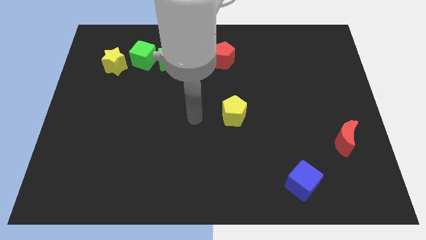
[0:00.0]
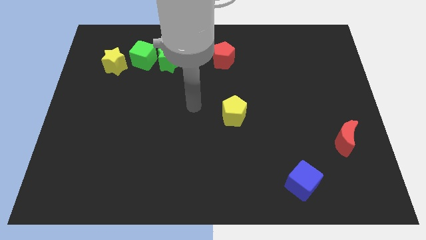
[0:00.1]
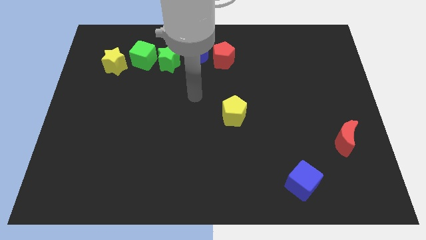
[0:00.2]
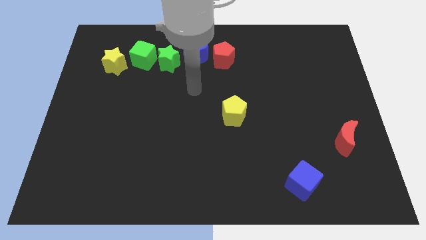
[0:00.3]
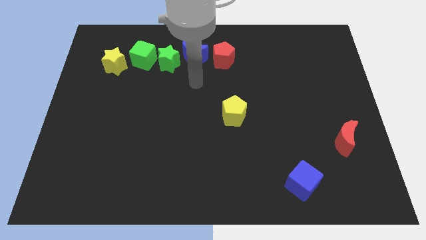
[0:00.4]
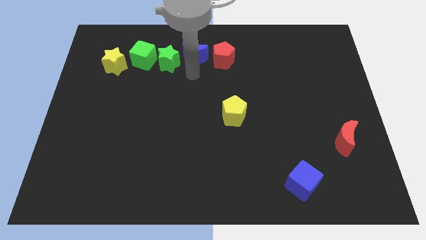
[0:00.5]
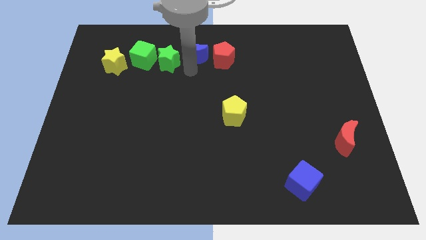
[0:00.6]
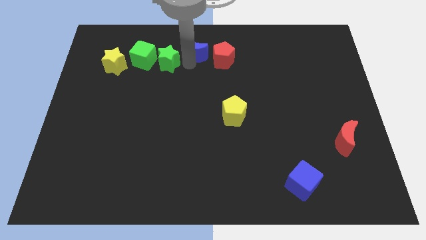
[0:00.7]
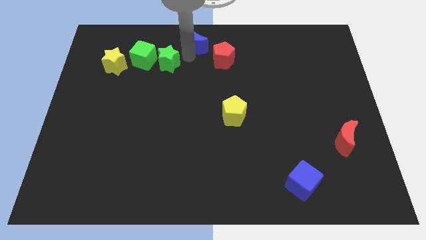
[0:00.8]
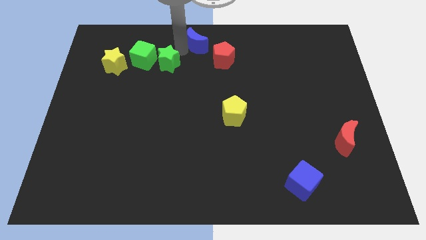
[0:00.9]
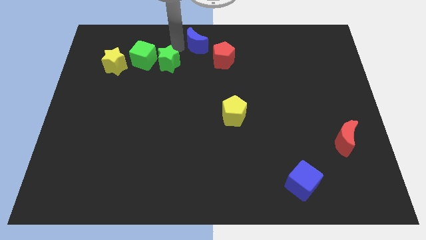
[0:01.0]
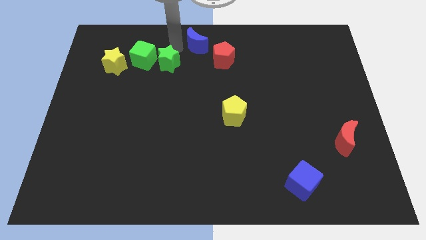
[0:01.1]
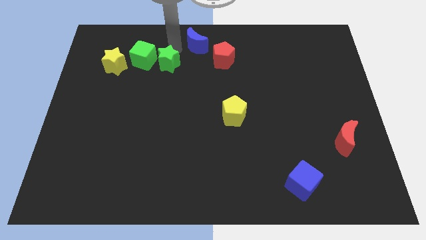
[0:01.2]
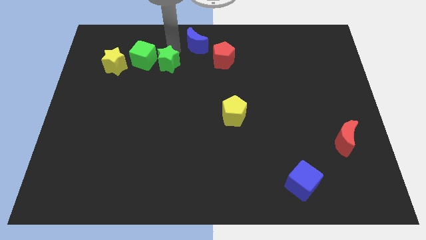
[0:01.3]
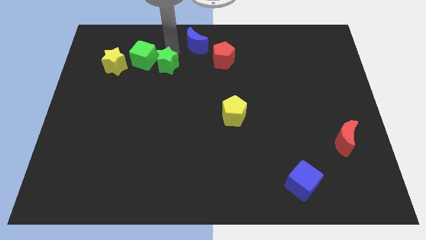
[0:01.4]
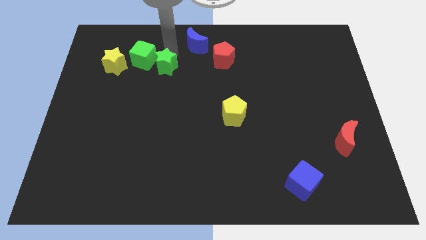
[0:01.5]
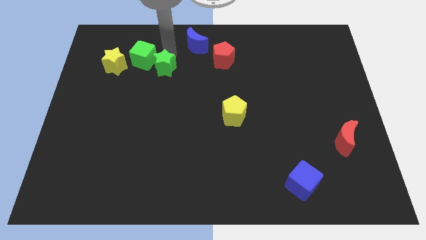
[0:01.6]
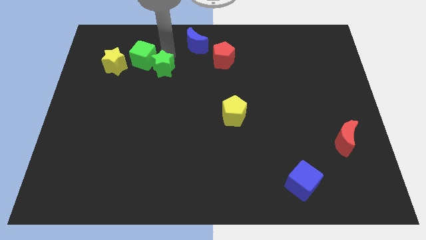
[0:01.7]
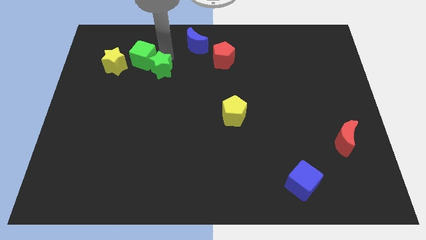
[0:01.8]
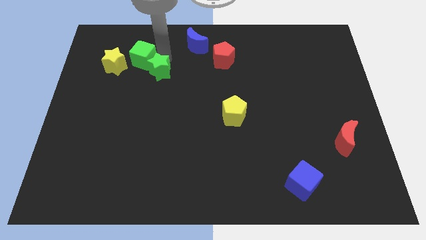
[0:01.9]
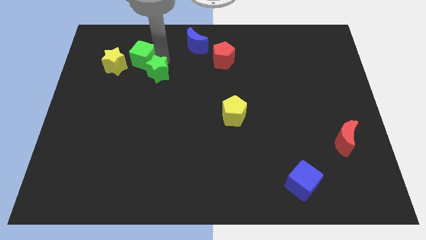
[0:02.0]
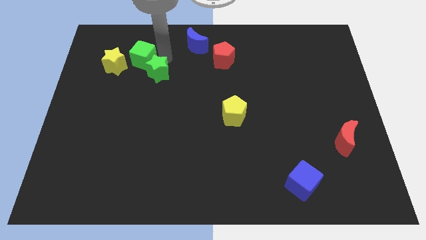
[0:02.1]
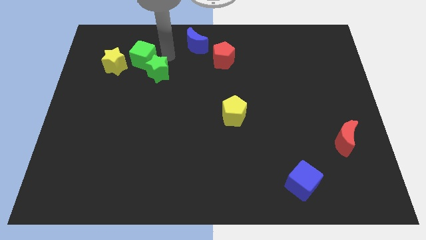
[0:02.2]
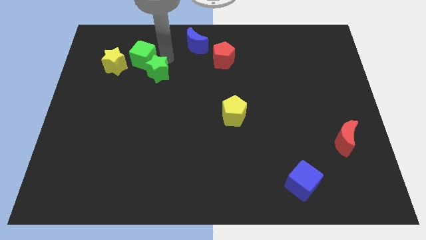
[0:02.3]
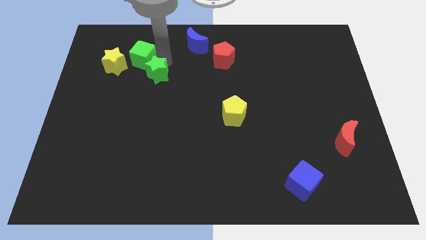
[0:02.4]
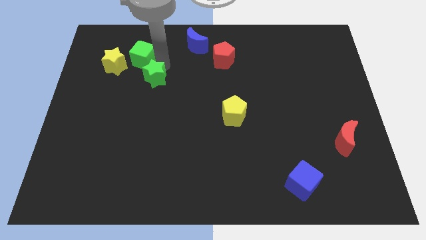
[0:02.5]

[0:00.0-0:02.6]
pull the green star apart from the green cube and blue moon

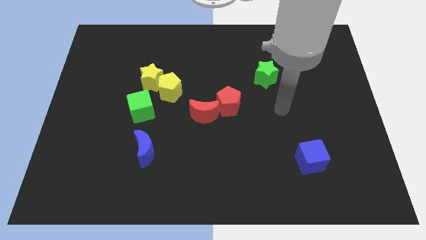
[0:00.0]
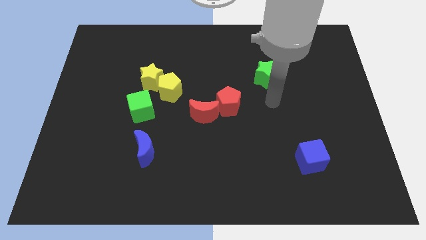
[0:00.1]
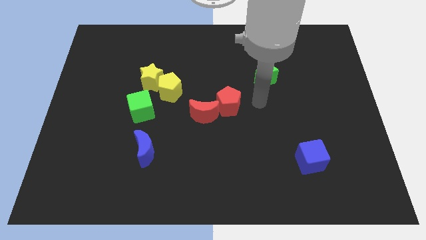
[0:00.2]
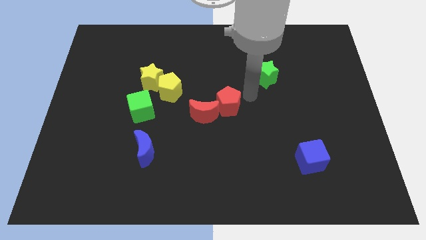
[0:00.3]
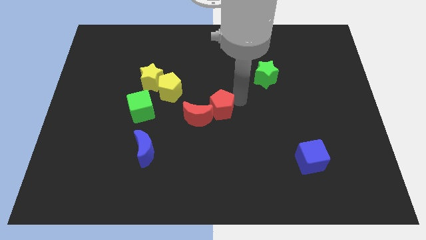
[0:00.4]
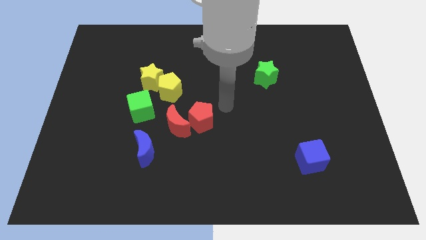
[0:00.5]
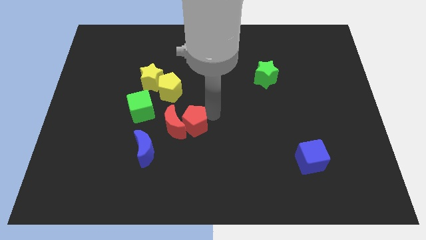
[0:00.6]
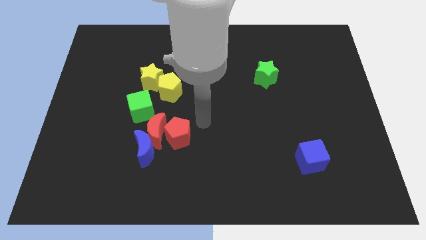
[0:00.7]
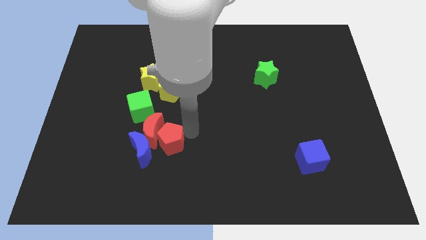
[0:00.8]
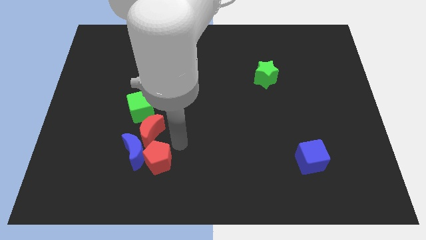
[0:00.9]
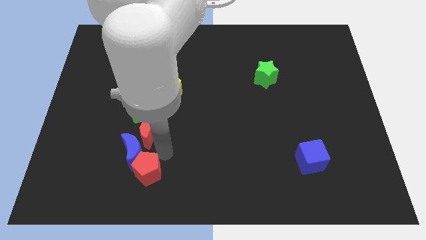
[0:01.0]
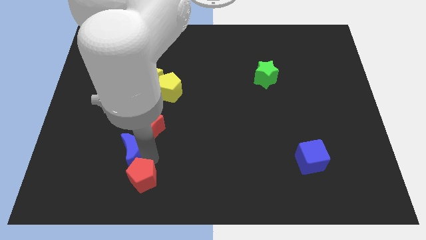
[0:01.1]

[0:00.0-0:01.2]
pull the red moon apart from the red pentagon

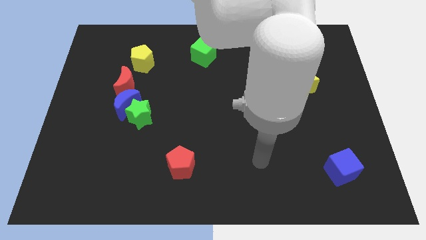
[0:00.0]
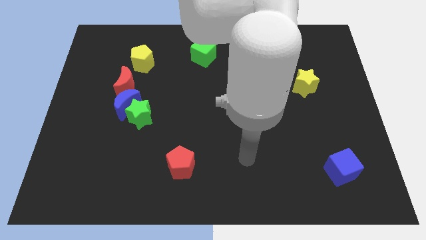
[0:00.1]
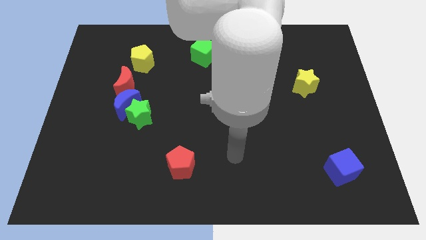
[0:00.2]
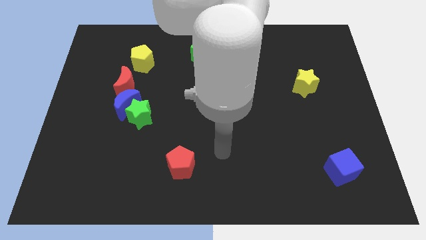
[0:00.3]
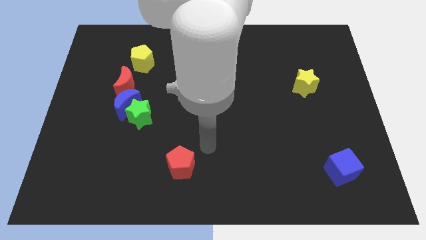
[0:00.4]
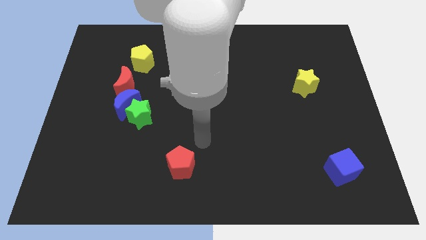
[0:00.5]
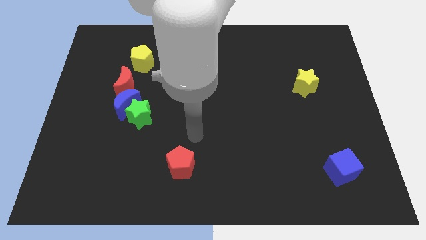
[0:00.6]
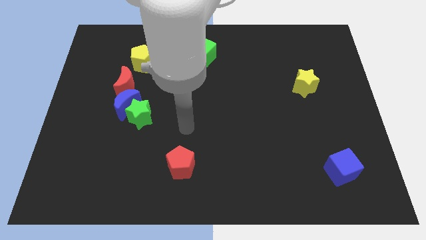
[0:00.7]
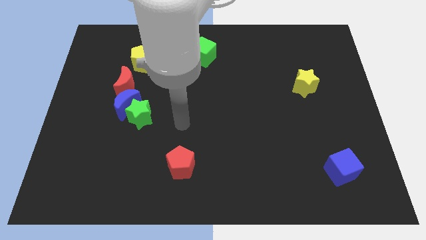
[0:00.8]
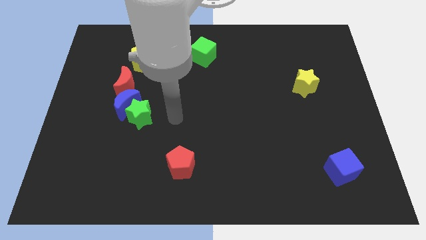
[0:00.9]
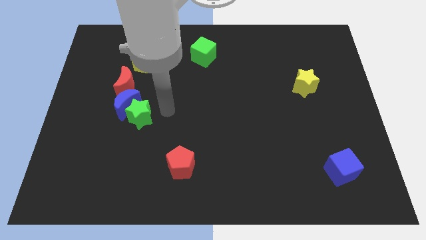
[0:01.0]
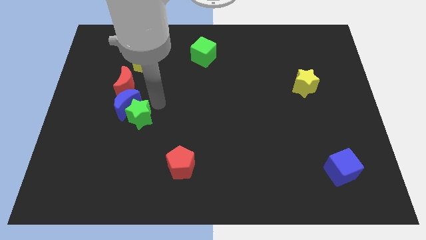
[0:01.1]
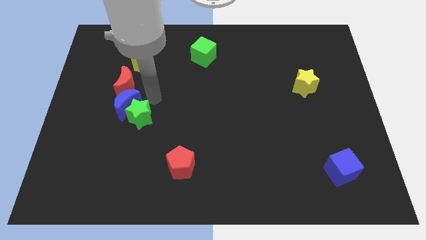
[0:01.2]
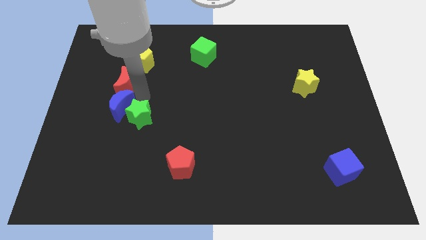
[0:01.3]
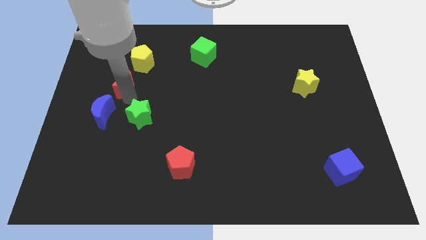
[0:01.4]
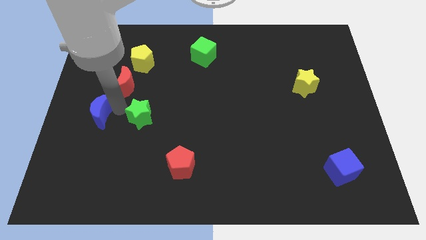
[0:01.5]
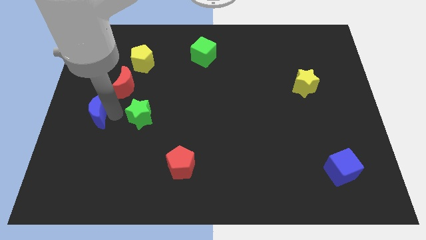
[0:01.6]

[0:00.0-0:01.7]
separate the green star from the blue moon

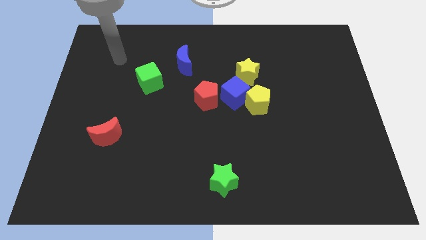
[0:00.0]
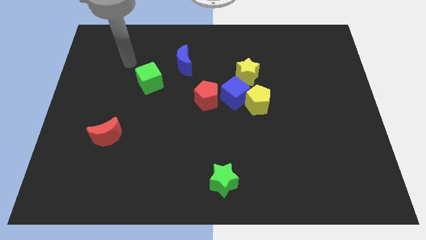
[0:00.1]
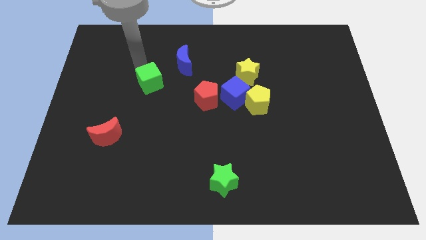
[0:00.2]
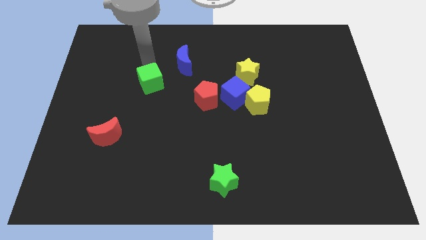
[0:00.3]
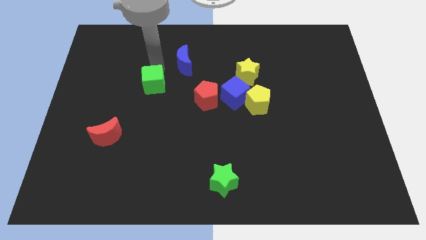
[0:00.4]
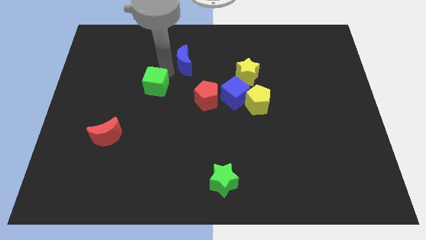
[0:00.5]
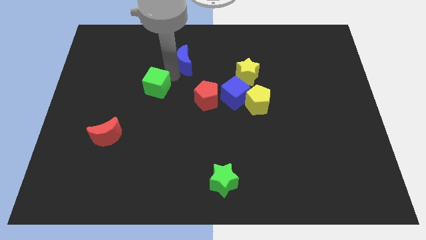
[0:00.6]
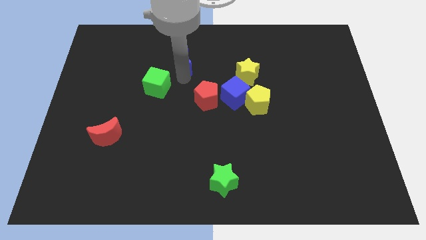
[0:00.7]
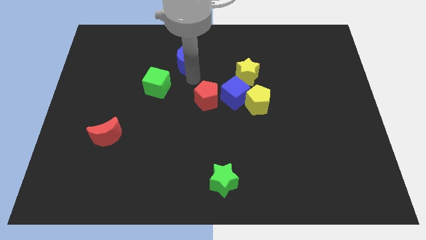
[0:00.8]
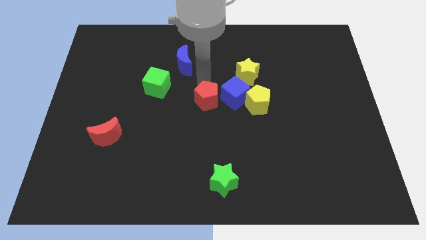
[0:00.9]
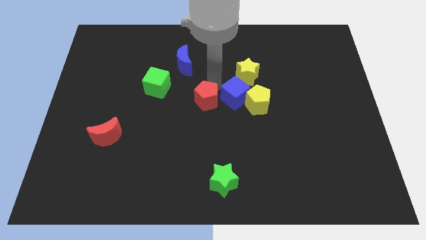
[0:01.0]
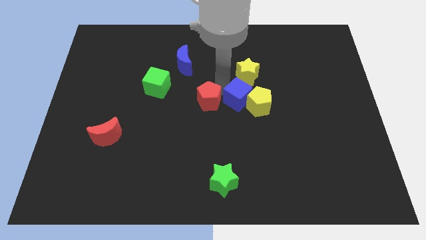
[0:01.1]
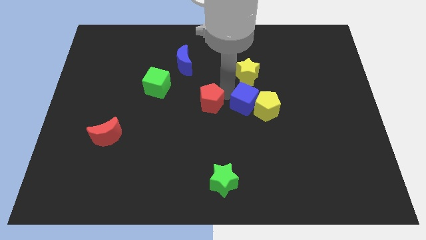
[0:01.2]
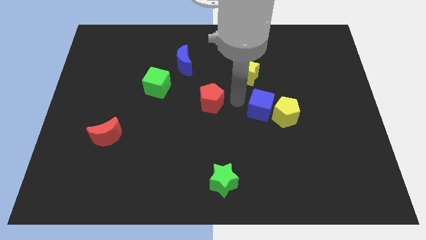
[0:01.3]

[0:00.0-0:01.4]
pull the red pentagon apart from the blue cube

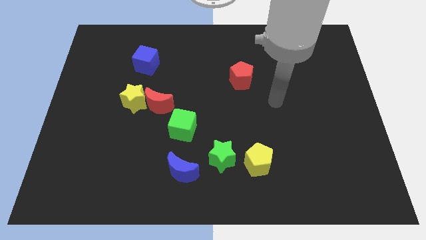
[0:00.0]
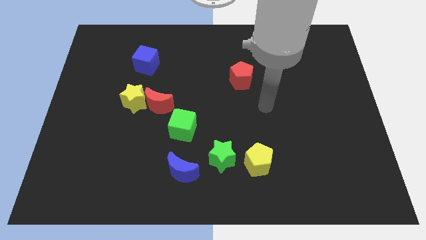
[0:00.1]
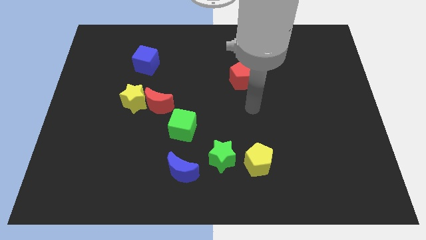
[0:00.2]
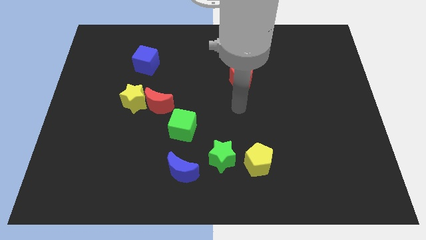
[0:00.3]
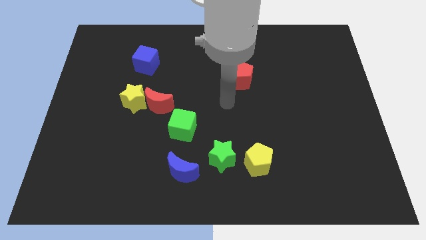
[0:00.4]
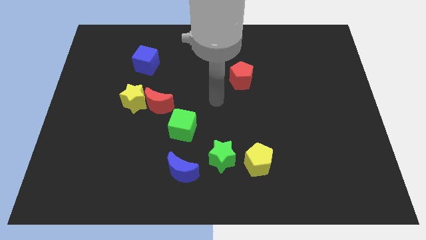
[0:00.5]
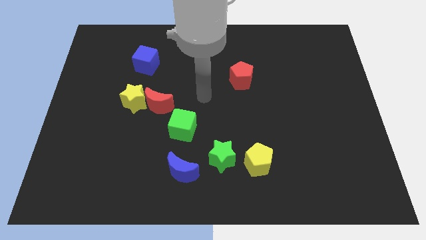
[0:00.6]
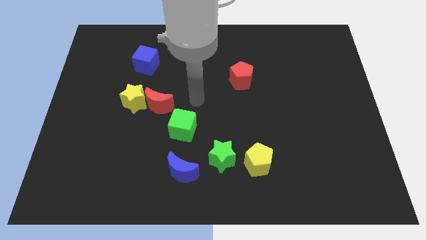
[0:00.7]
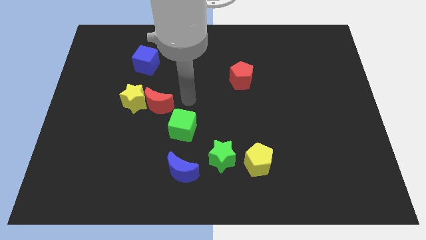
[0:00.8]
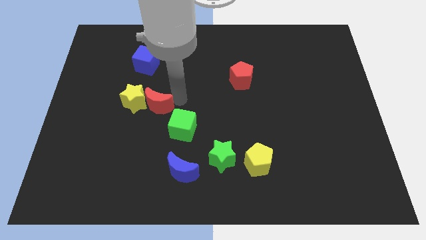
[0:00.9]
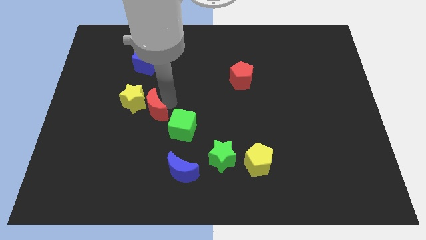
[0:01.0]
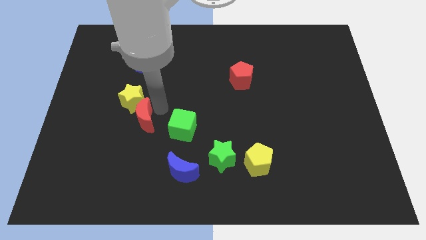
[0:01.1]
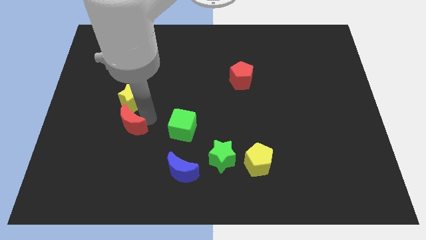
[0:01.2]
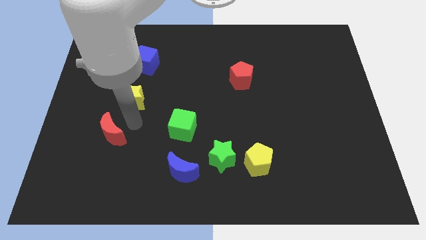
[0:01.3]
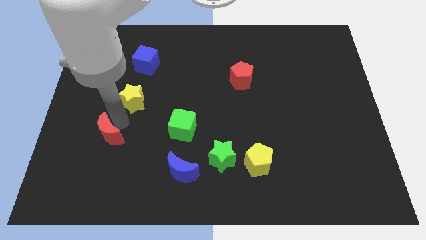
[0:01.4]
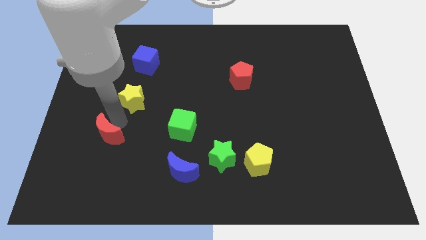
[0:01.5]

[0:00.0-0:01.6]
pull the yellow star apart from the red moon

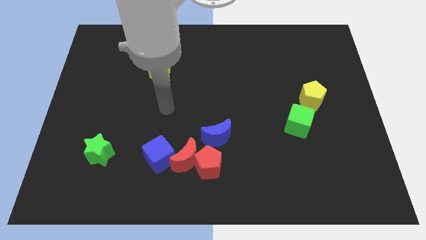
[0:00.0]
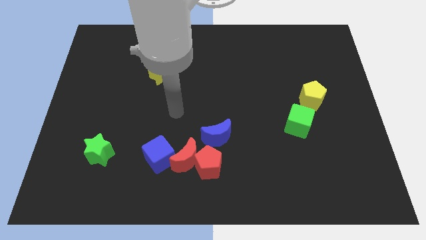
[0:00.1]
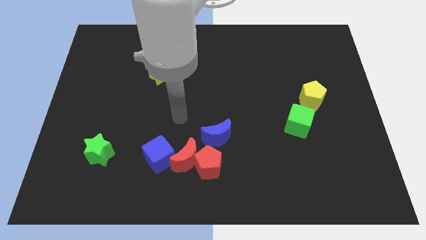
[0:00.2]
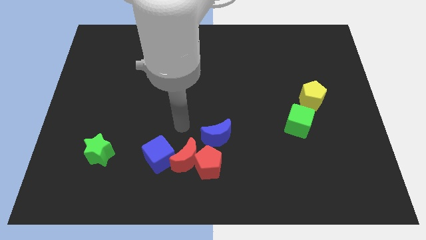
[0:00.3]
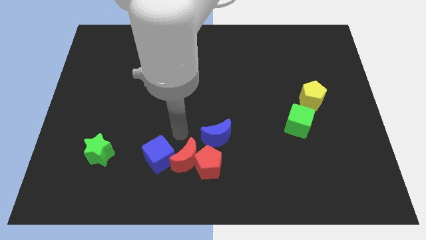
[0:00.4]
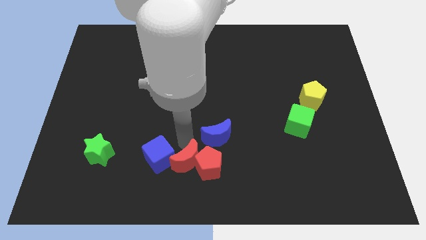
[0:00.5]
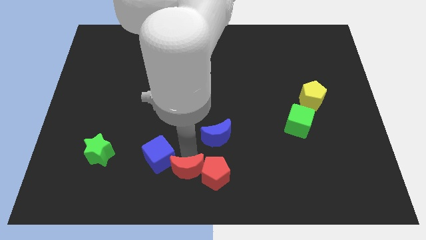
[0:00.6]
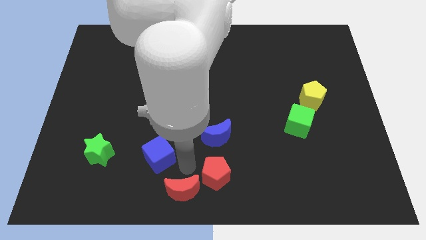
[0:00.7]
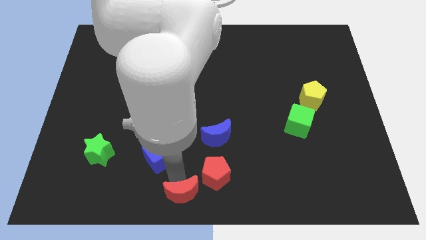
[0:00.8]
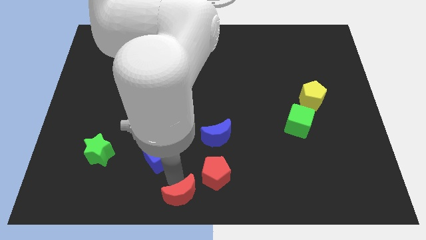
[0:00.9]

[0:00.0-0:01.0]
pull the blue cube apart from the red moon
